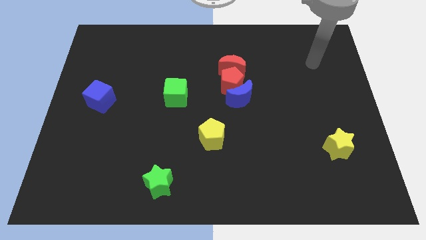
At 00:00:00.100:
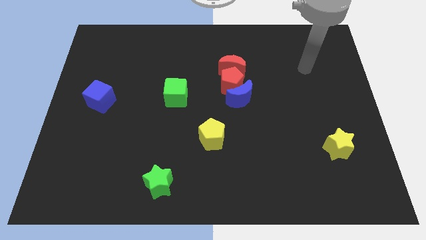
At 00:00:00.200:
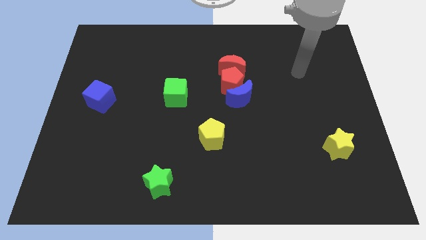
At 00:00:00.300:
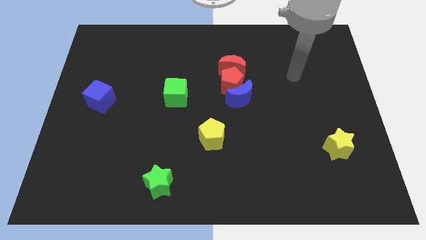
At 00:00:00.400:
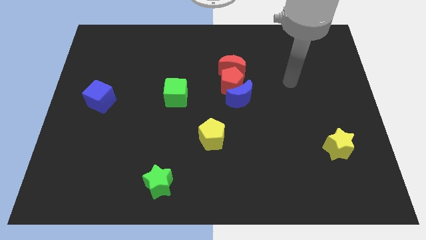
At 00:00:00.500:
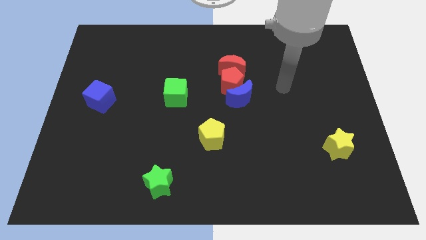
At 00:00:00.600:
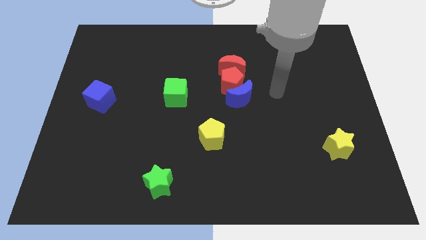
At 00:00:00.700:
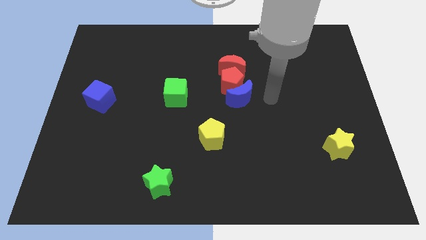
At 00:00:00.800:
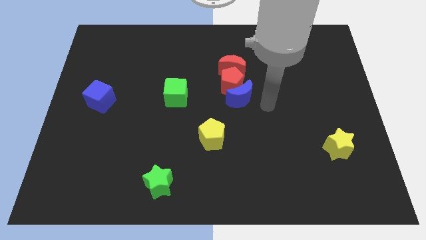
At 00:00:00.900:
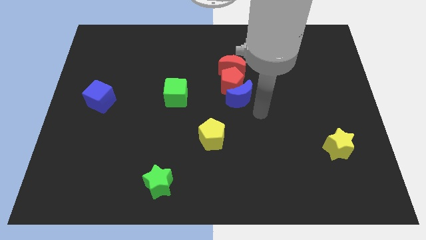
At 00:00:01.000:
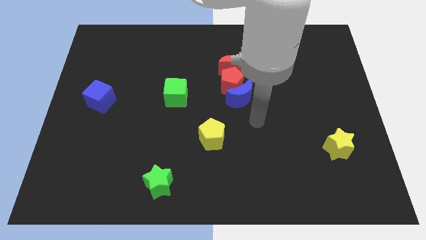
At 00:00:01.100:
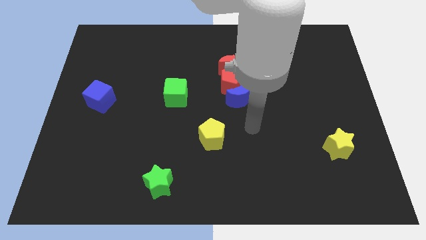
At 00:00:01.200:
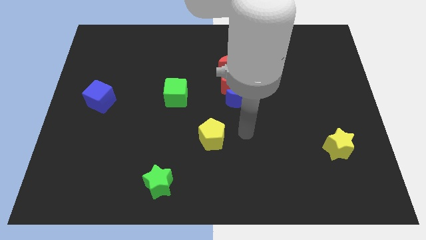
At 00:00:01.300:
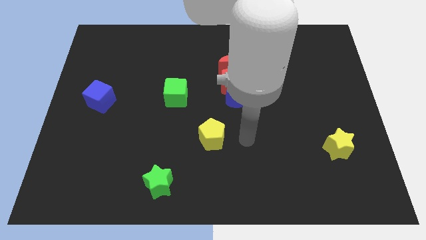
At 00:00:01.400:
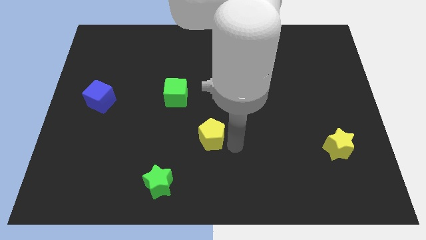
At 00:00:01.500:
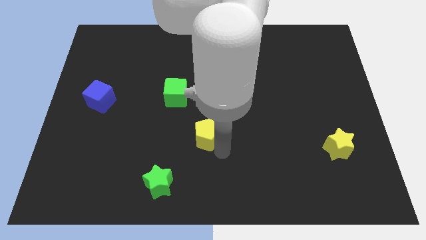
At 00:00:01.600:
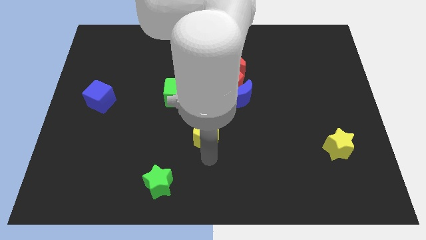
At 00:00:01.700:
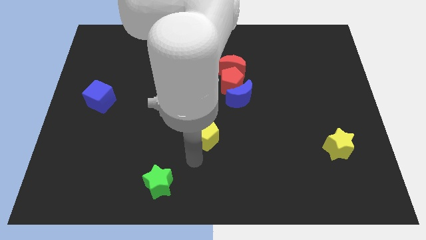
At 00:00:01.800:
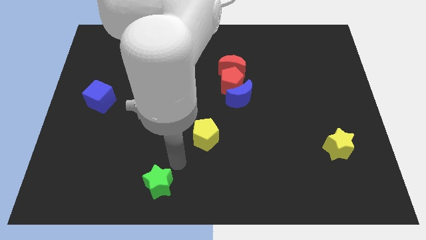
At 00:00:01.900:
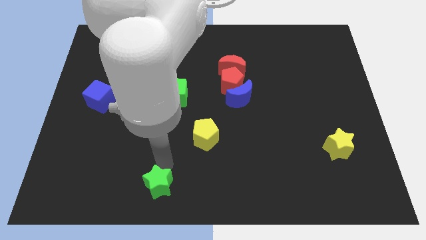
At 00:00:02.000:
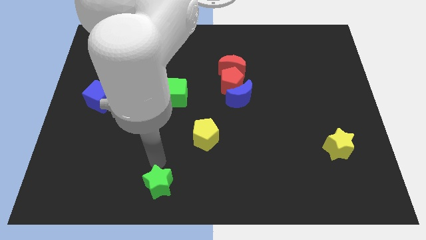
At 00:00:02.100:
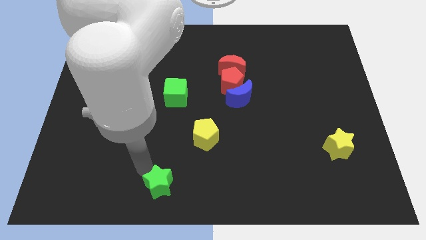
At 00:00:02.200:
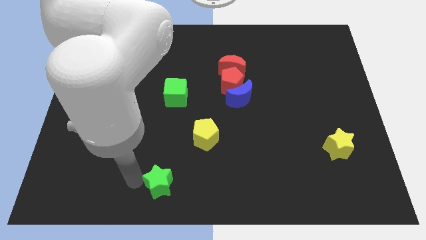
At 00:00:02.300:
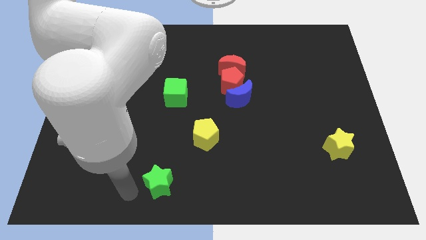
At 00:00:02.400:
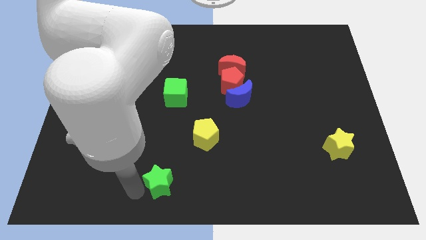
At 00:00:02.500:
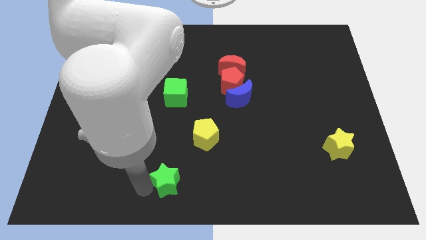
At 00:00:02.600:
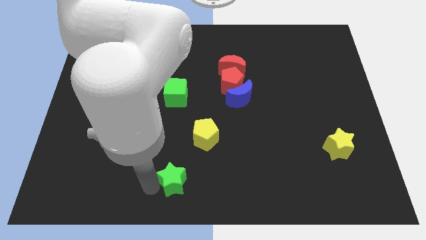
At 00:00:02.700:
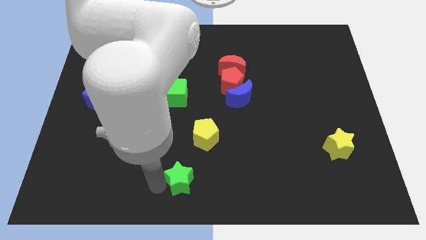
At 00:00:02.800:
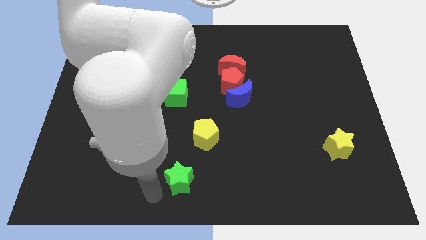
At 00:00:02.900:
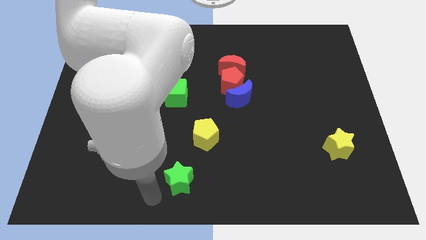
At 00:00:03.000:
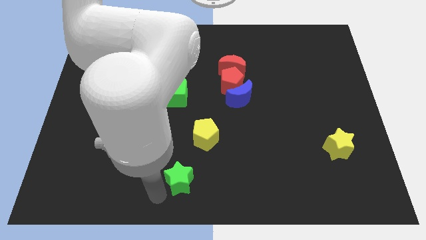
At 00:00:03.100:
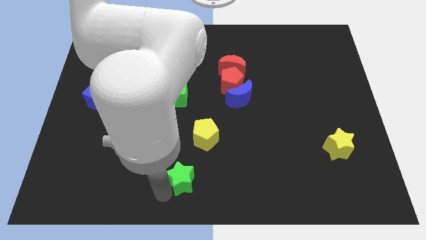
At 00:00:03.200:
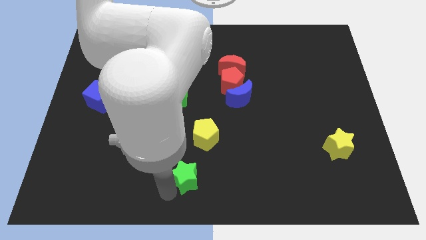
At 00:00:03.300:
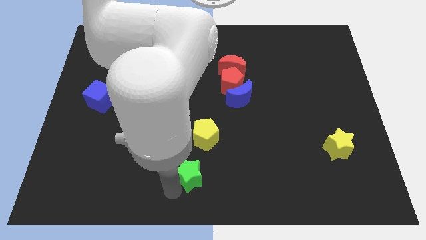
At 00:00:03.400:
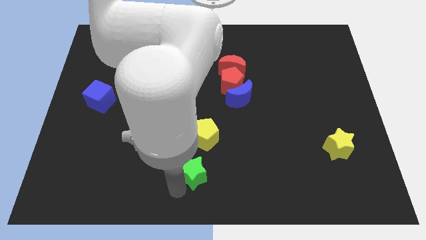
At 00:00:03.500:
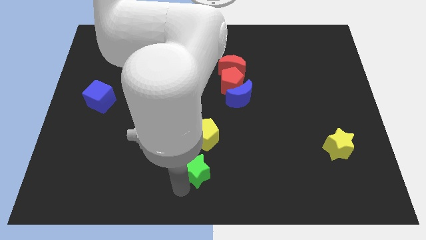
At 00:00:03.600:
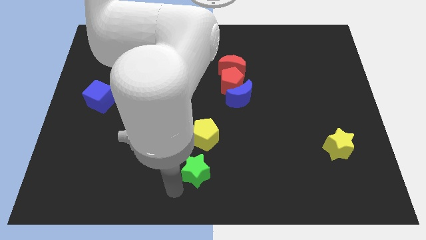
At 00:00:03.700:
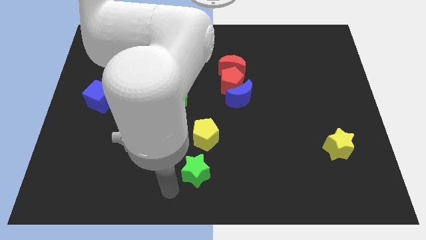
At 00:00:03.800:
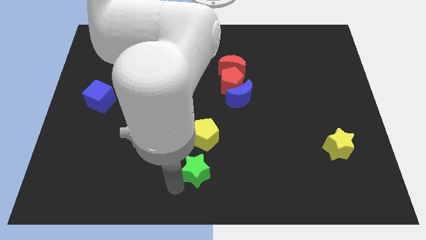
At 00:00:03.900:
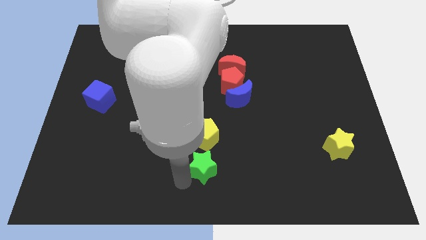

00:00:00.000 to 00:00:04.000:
slightly slide the green star diagonally up and to the right

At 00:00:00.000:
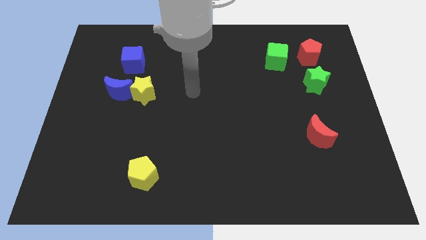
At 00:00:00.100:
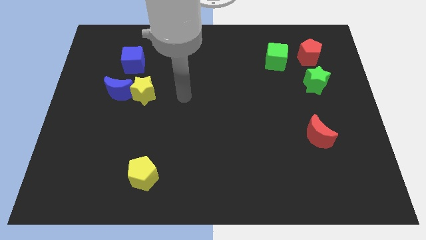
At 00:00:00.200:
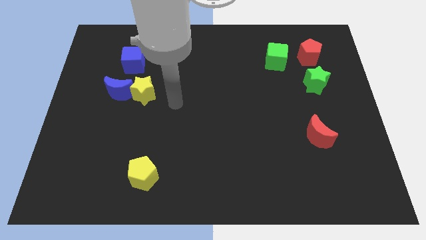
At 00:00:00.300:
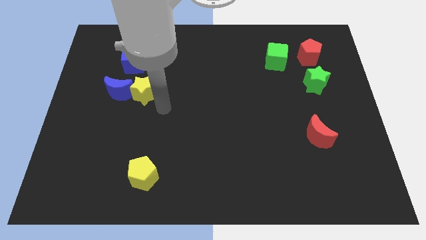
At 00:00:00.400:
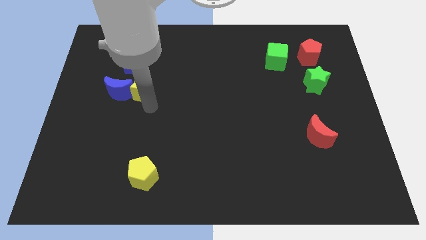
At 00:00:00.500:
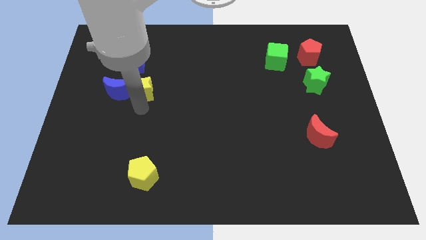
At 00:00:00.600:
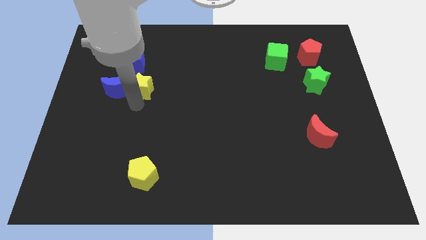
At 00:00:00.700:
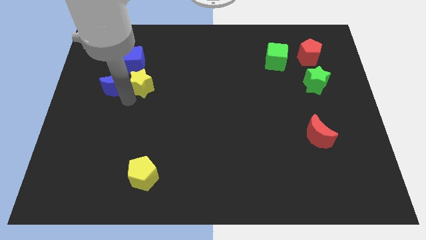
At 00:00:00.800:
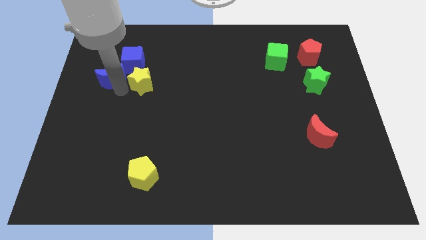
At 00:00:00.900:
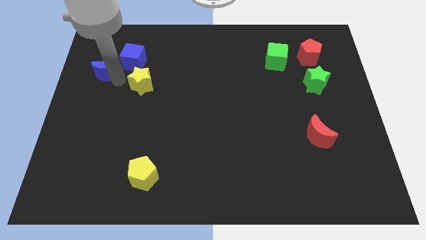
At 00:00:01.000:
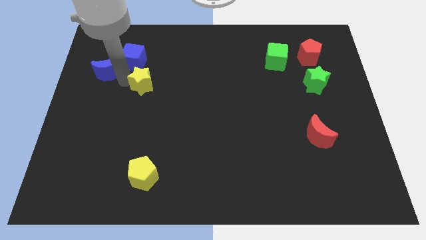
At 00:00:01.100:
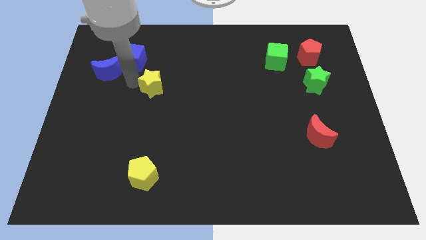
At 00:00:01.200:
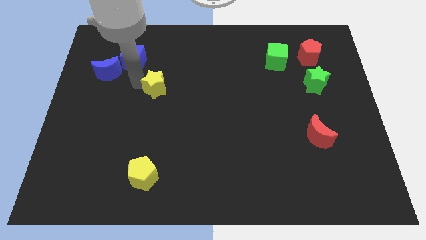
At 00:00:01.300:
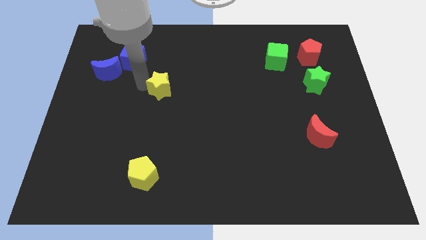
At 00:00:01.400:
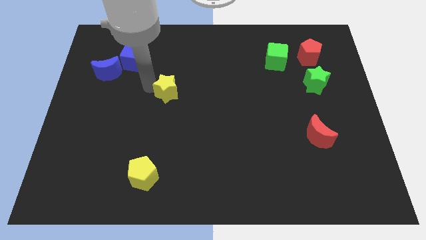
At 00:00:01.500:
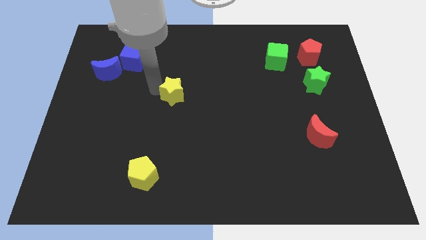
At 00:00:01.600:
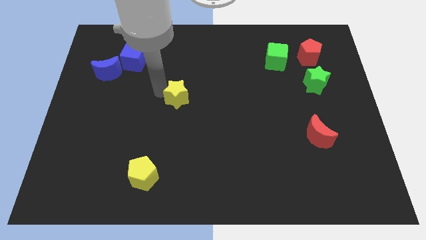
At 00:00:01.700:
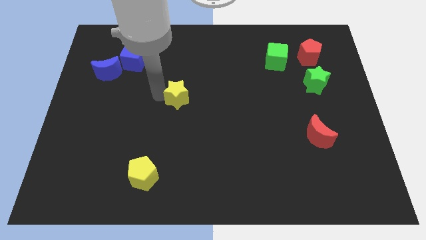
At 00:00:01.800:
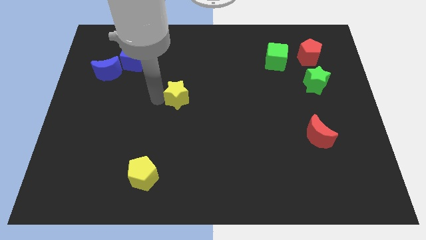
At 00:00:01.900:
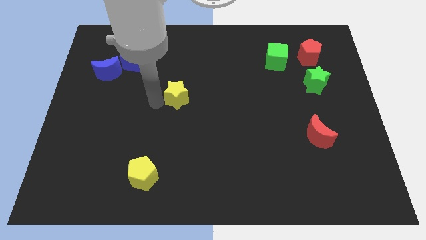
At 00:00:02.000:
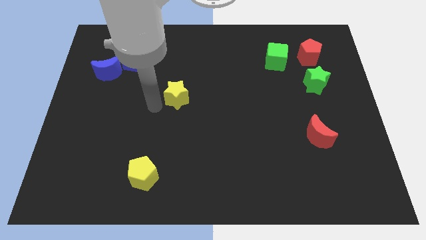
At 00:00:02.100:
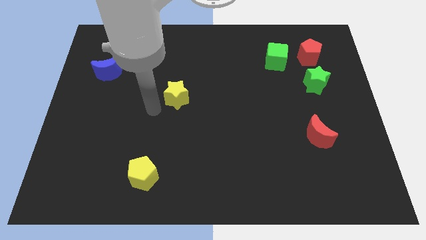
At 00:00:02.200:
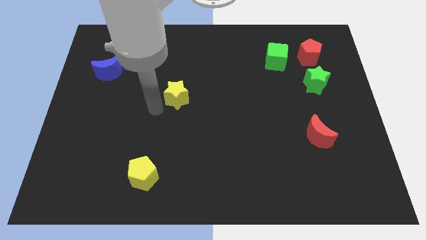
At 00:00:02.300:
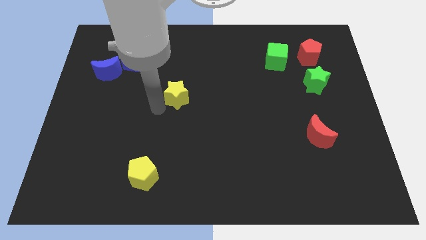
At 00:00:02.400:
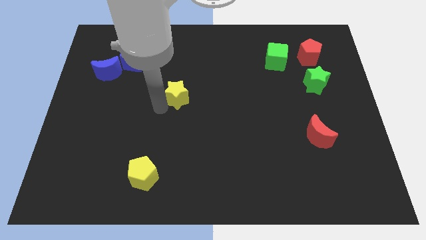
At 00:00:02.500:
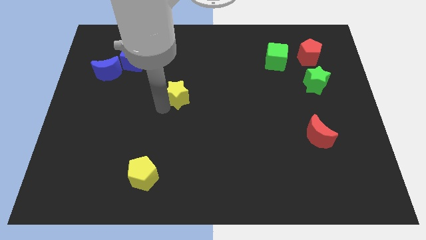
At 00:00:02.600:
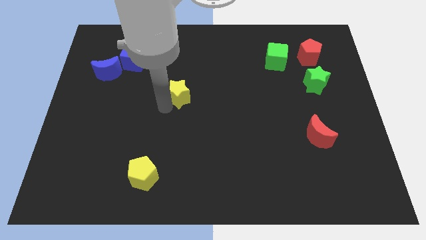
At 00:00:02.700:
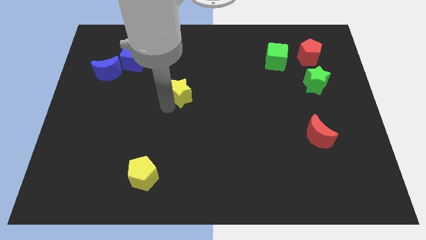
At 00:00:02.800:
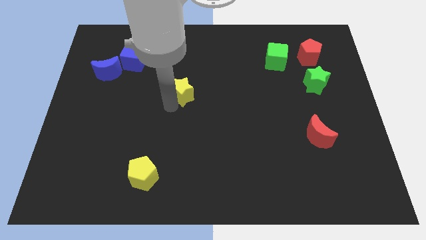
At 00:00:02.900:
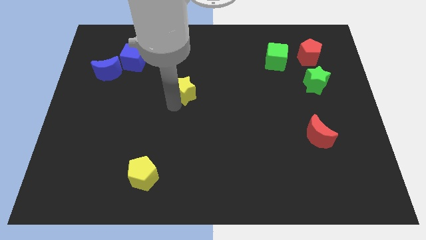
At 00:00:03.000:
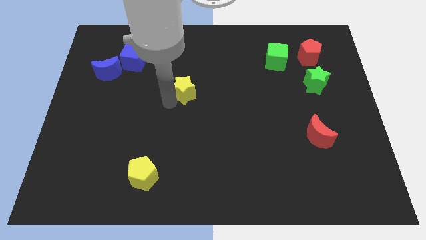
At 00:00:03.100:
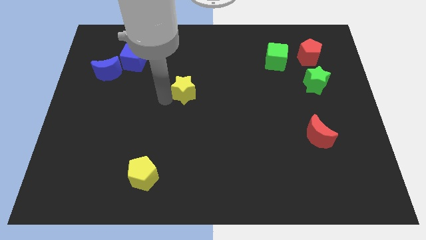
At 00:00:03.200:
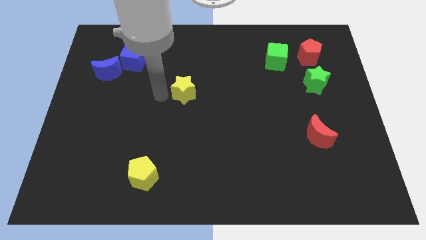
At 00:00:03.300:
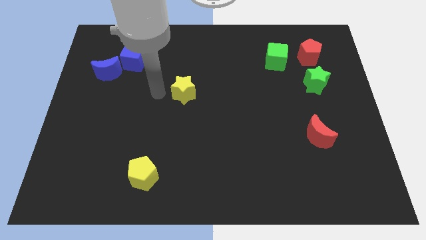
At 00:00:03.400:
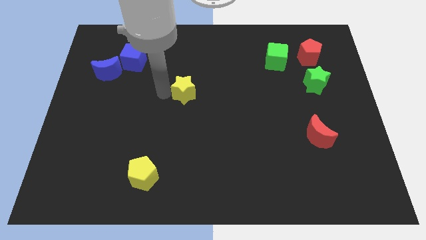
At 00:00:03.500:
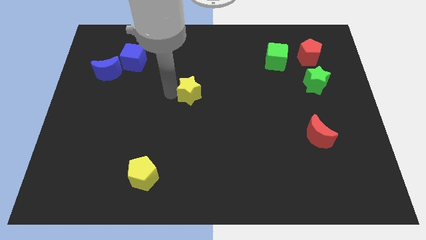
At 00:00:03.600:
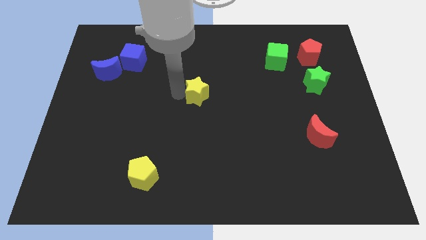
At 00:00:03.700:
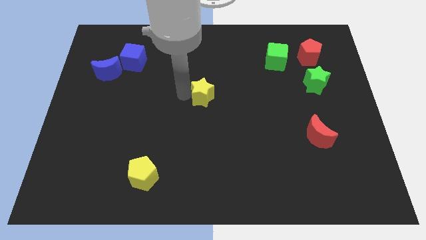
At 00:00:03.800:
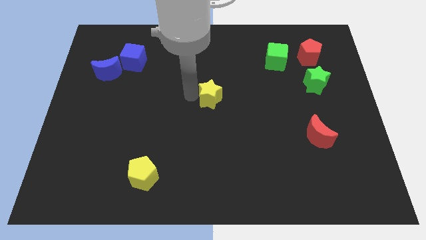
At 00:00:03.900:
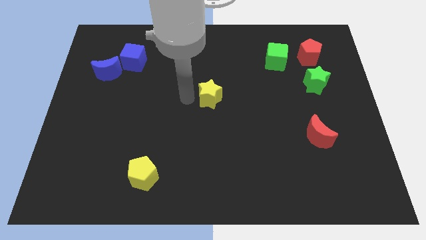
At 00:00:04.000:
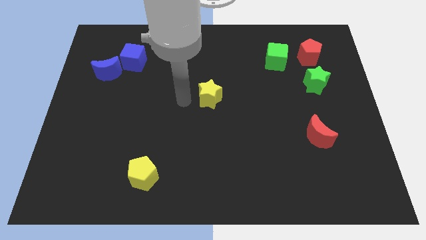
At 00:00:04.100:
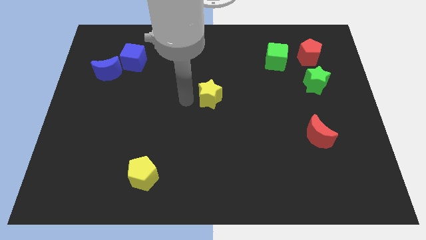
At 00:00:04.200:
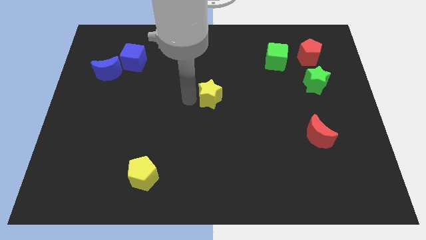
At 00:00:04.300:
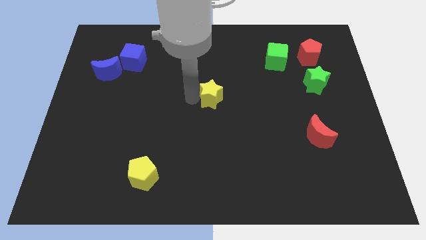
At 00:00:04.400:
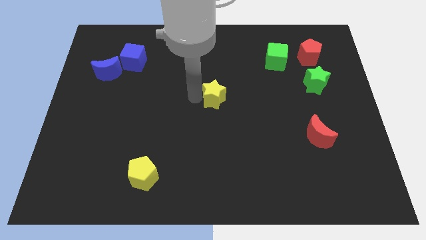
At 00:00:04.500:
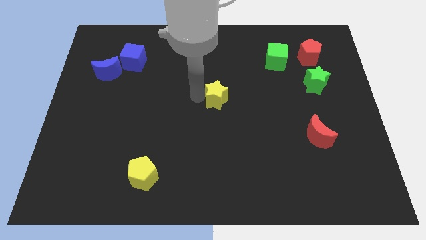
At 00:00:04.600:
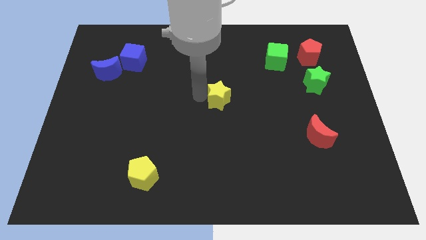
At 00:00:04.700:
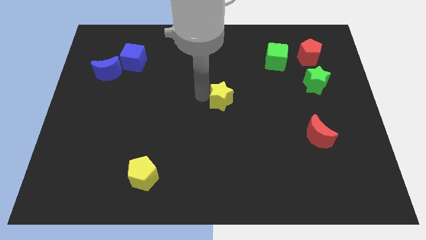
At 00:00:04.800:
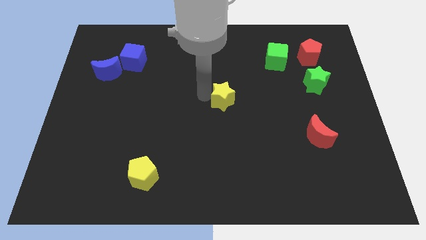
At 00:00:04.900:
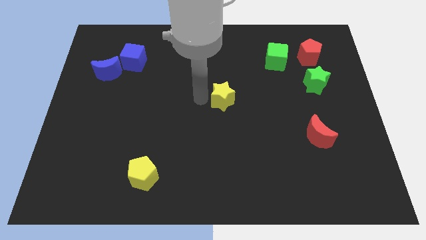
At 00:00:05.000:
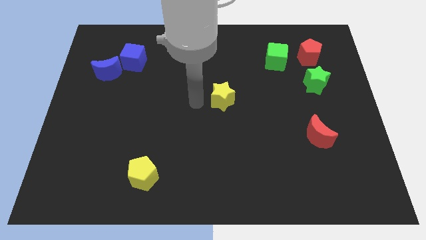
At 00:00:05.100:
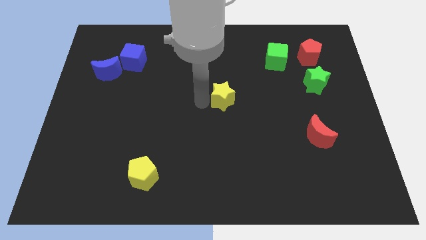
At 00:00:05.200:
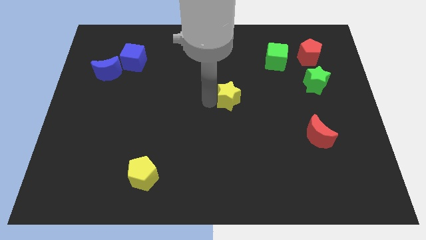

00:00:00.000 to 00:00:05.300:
move the yellow star to the right
